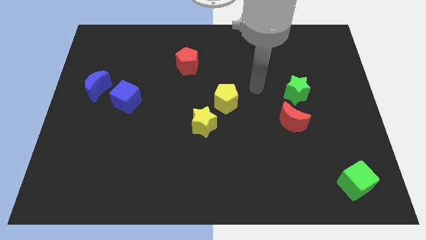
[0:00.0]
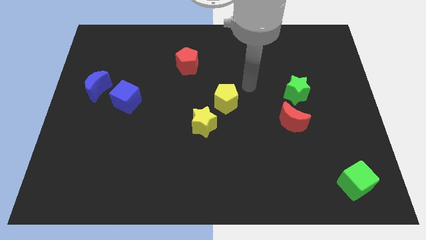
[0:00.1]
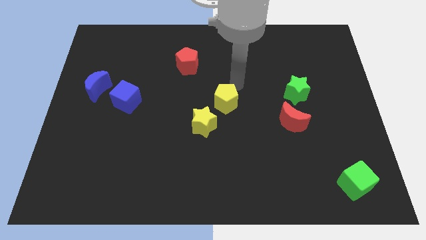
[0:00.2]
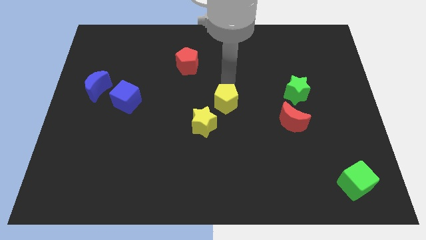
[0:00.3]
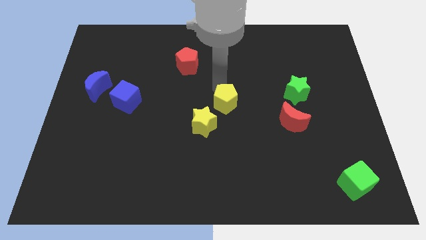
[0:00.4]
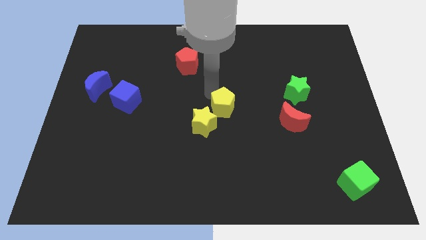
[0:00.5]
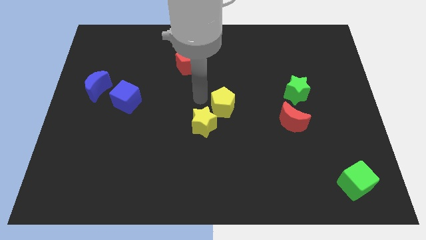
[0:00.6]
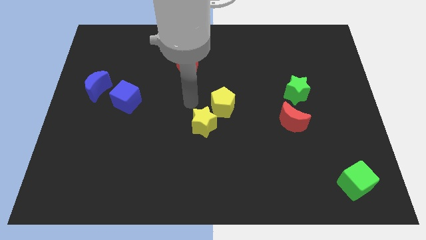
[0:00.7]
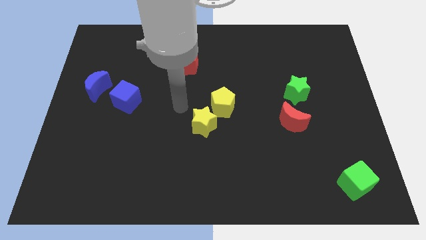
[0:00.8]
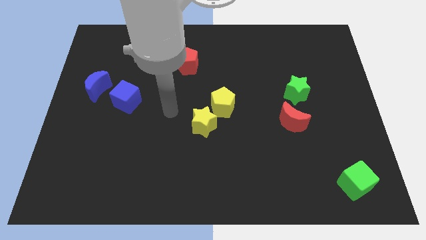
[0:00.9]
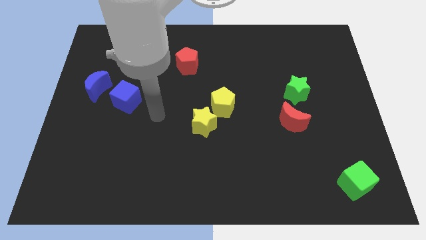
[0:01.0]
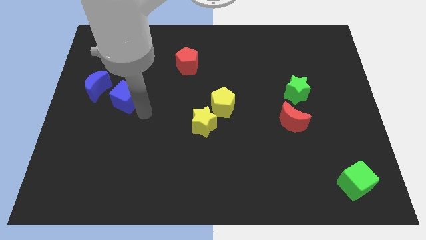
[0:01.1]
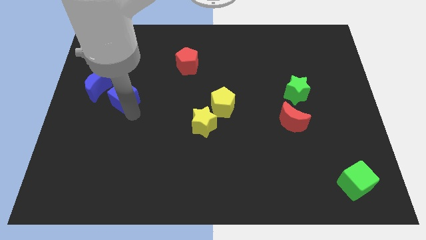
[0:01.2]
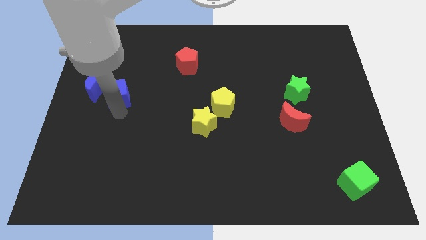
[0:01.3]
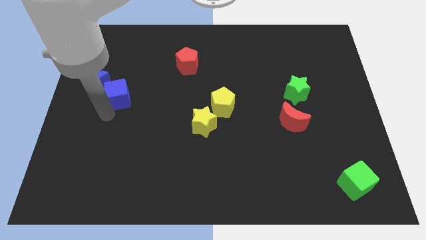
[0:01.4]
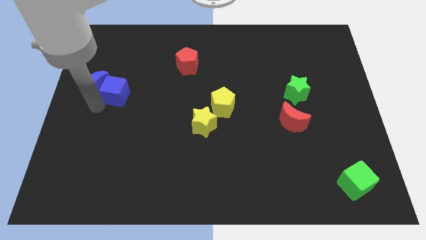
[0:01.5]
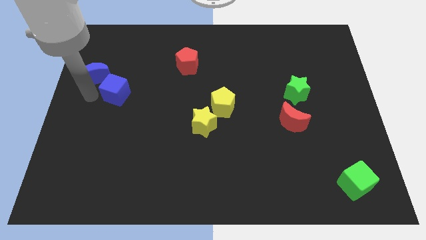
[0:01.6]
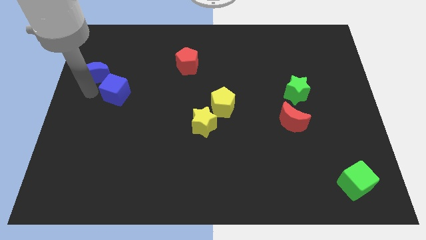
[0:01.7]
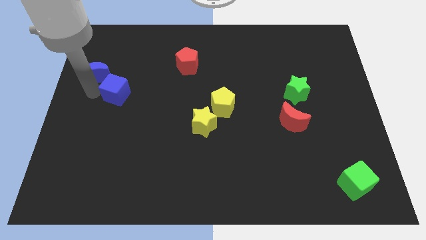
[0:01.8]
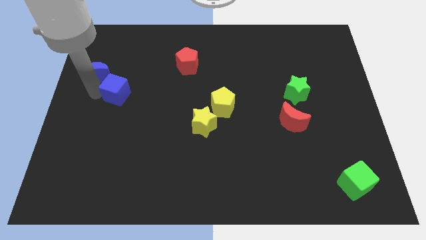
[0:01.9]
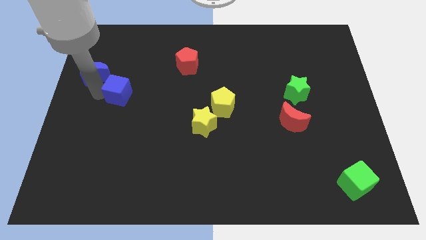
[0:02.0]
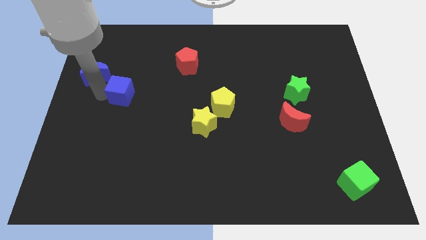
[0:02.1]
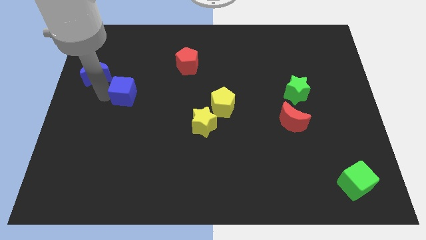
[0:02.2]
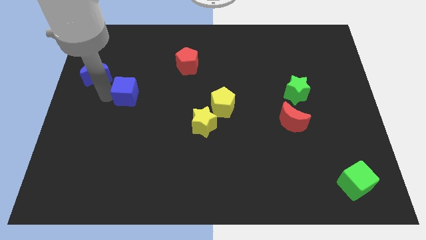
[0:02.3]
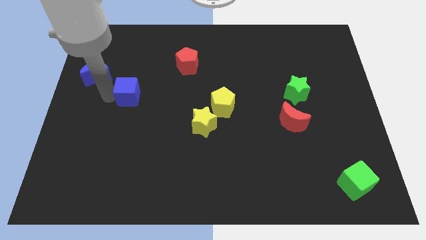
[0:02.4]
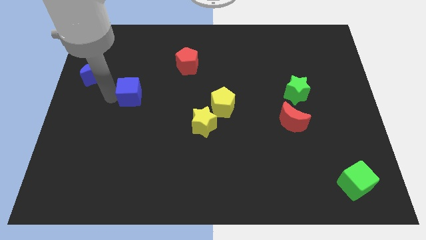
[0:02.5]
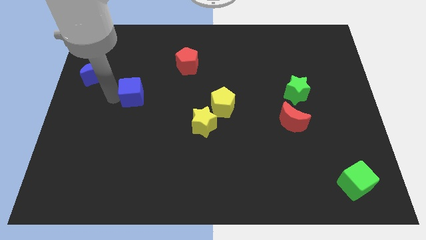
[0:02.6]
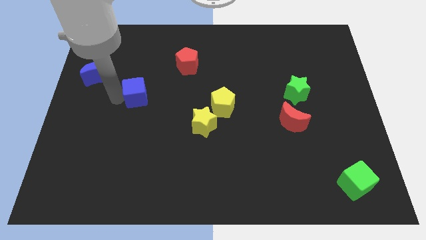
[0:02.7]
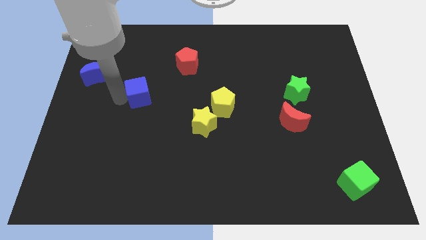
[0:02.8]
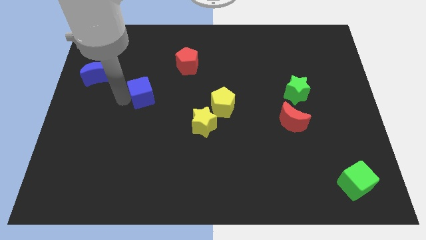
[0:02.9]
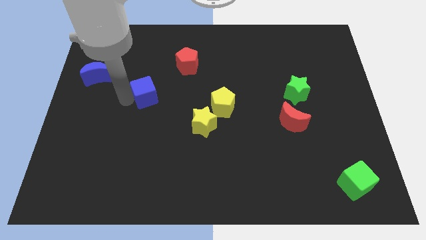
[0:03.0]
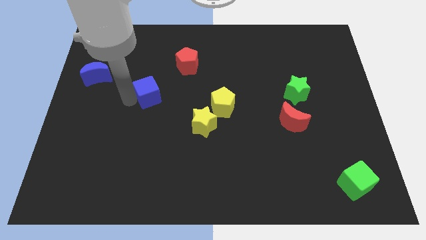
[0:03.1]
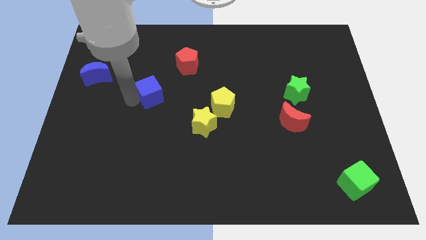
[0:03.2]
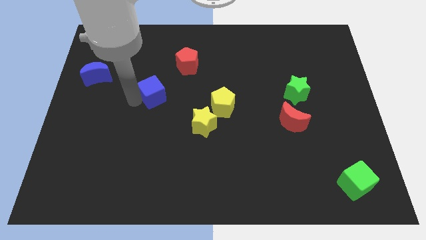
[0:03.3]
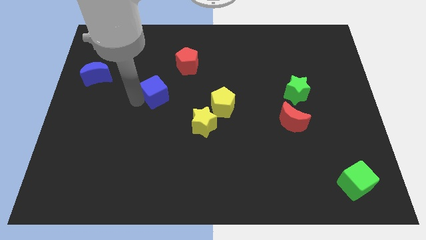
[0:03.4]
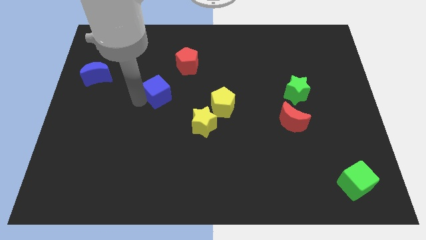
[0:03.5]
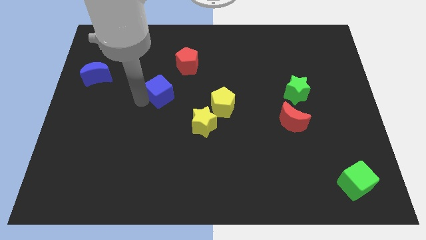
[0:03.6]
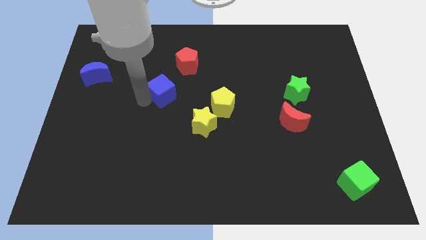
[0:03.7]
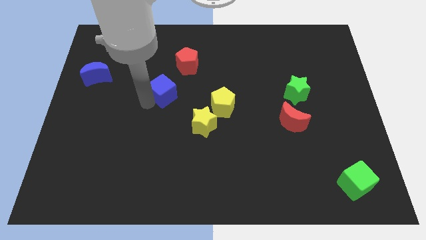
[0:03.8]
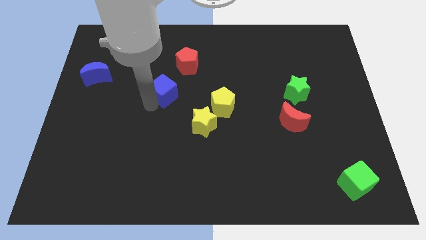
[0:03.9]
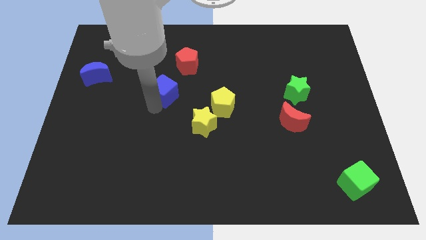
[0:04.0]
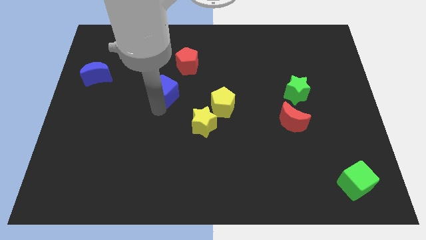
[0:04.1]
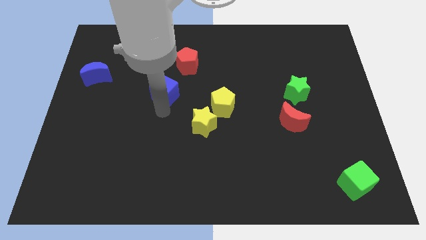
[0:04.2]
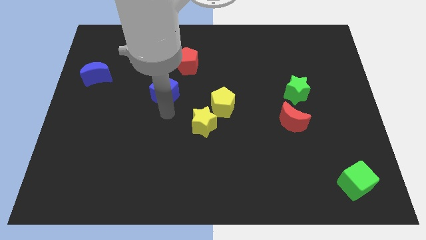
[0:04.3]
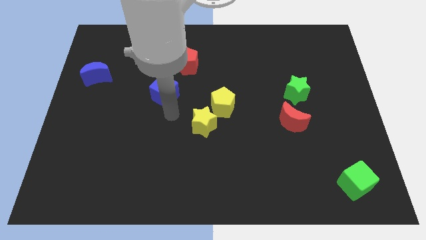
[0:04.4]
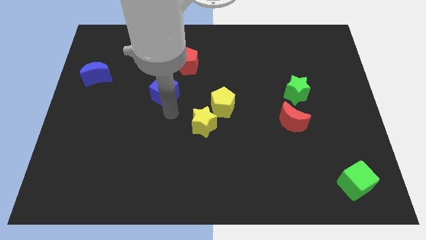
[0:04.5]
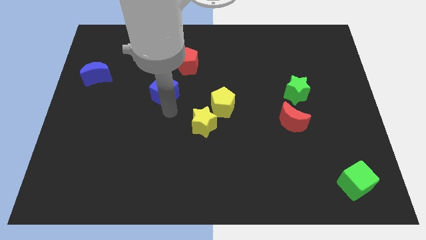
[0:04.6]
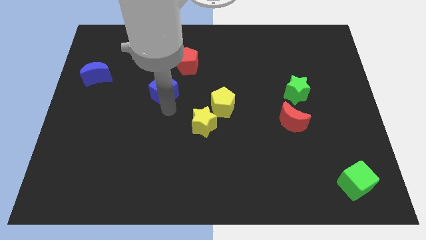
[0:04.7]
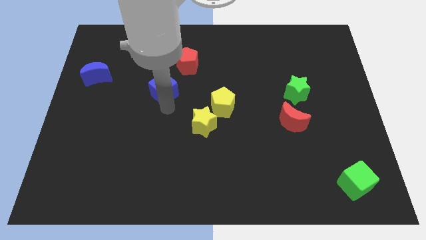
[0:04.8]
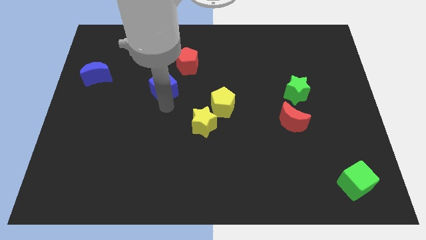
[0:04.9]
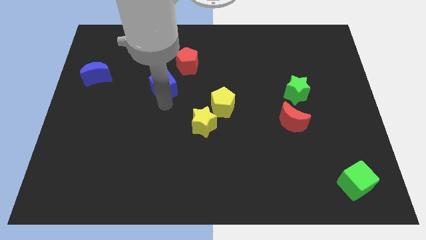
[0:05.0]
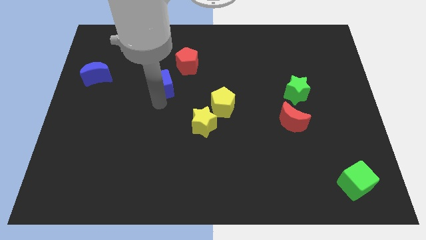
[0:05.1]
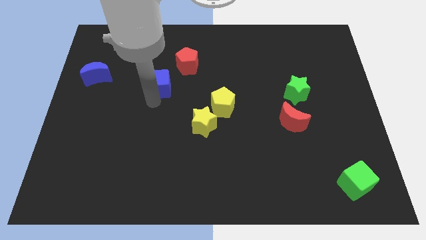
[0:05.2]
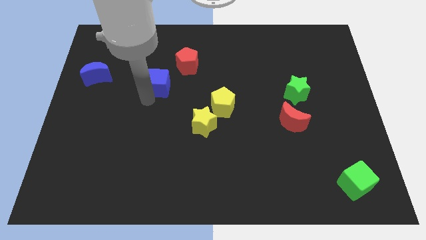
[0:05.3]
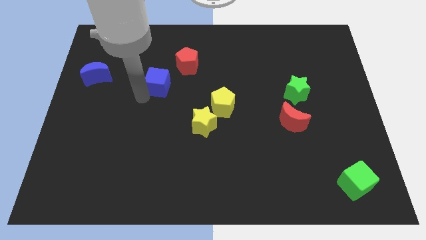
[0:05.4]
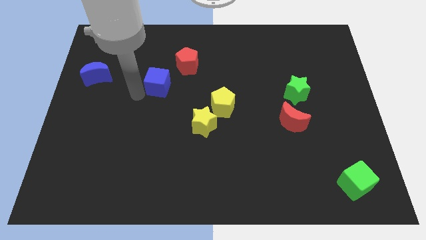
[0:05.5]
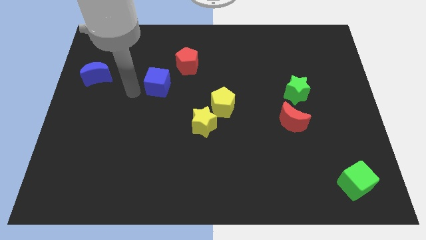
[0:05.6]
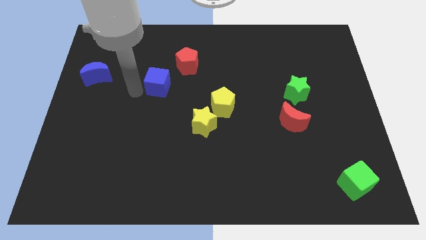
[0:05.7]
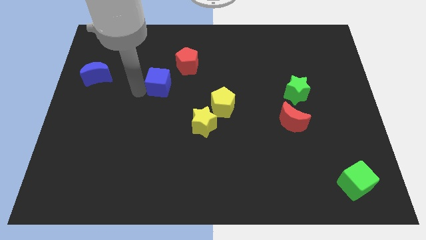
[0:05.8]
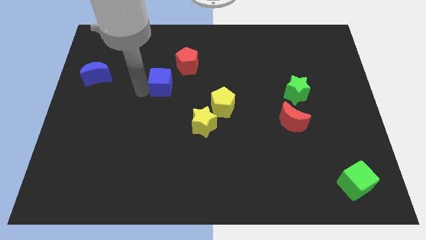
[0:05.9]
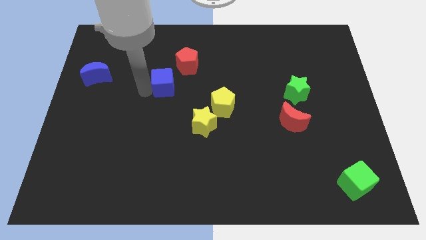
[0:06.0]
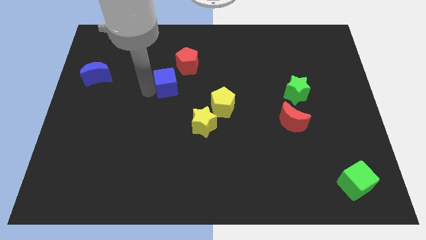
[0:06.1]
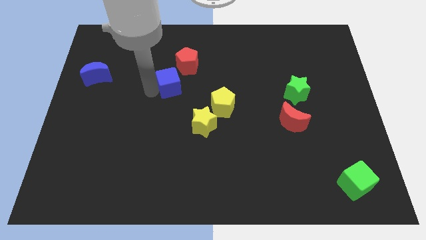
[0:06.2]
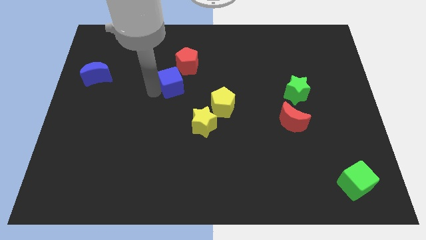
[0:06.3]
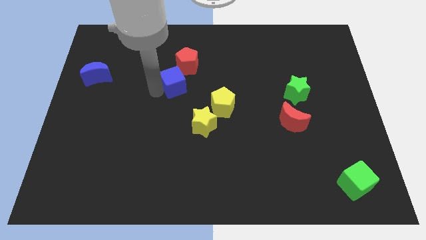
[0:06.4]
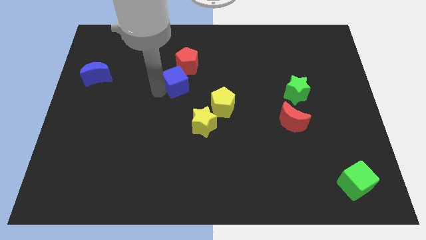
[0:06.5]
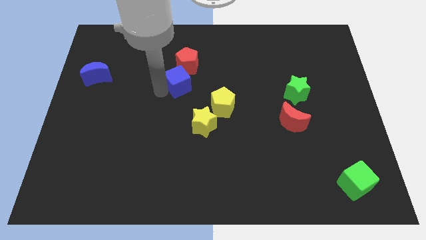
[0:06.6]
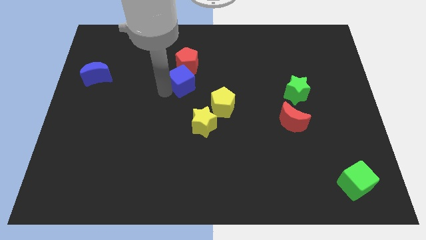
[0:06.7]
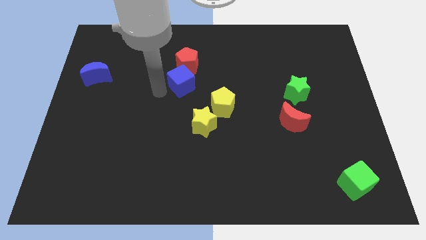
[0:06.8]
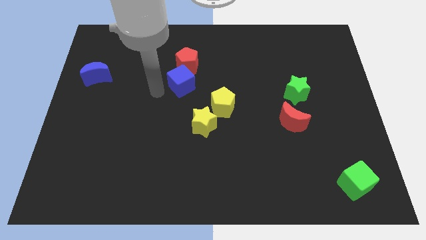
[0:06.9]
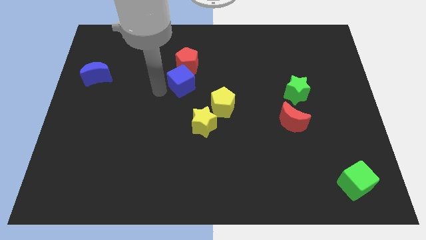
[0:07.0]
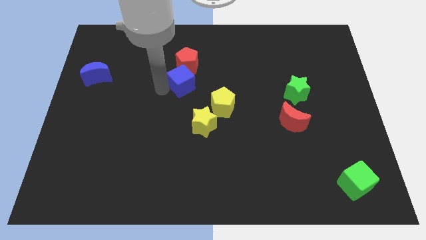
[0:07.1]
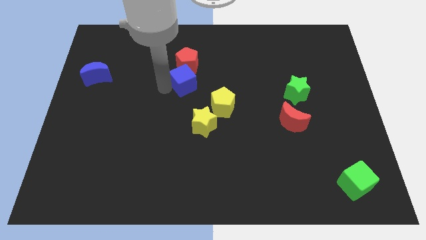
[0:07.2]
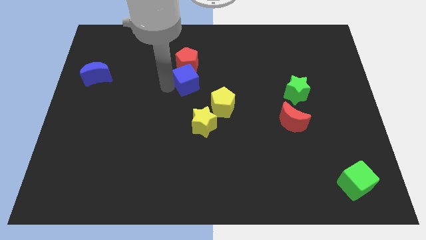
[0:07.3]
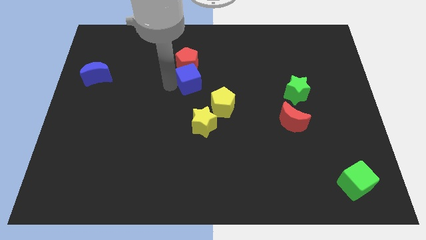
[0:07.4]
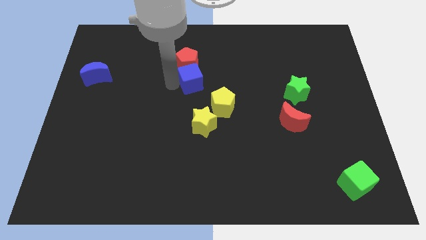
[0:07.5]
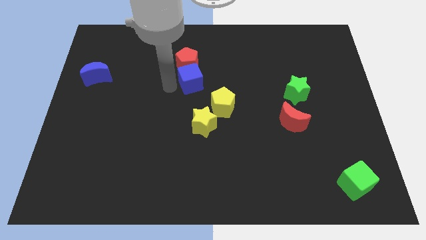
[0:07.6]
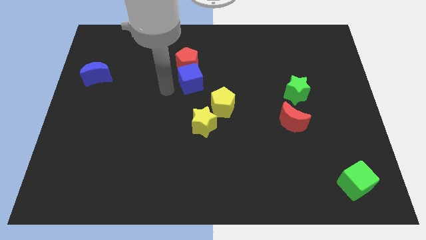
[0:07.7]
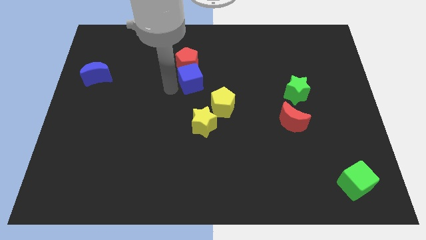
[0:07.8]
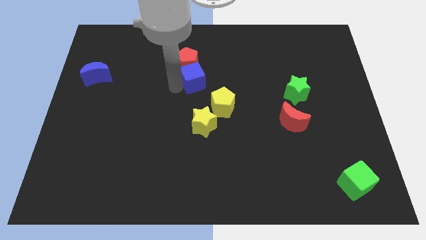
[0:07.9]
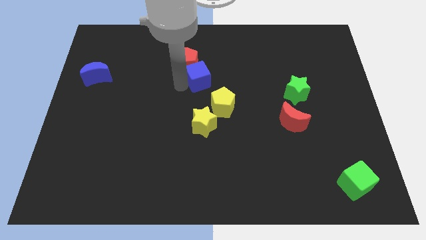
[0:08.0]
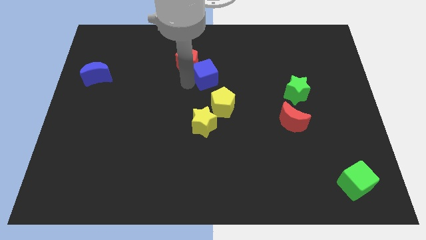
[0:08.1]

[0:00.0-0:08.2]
move the blue cube to the top side of the yellow pentagon
